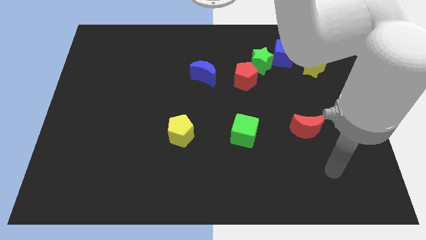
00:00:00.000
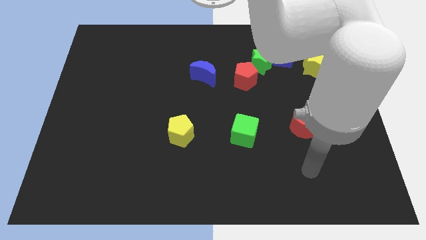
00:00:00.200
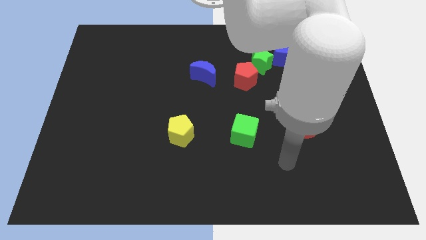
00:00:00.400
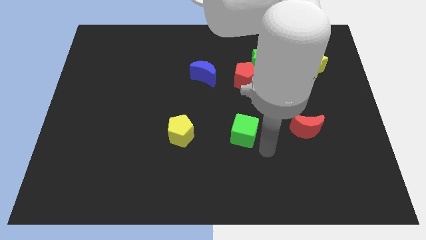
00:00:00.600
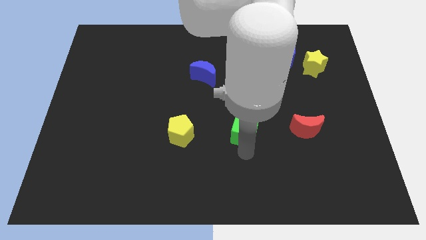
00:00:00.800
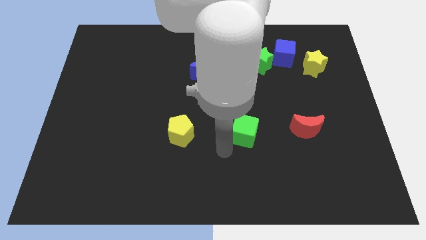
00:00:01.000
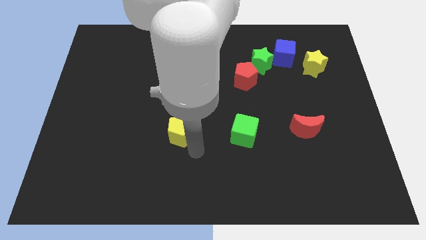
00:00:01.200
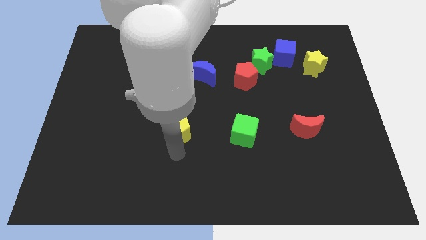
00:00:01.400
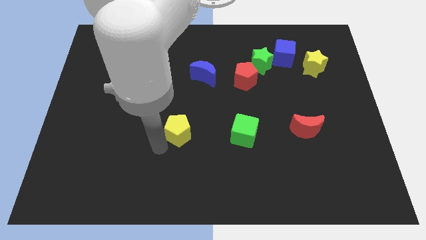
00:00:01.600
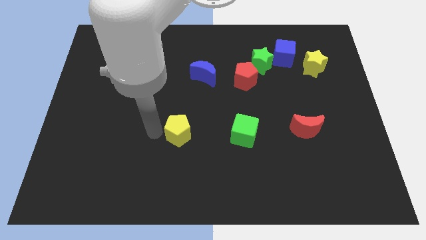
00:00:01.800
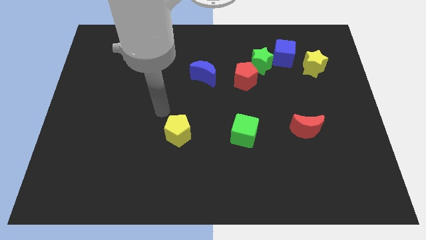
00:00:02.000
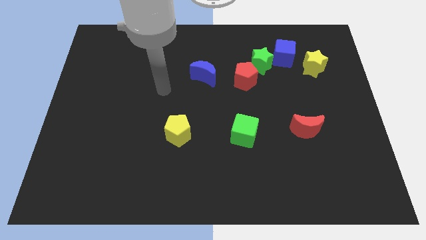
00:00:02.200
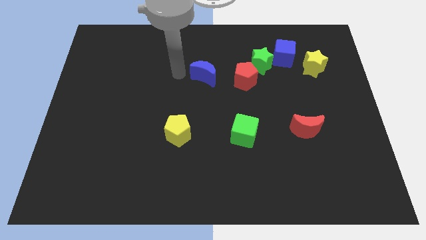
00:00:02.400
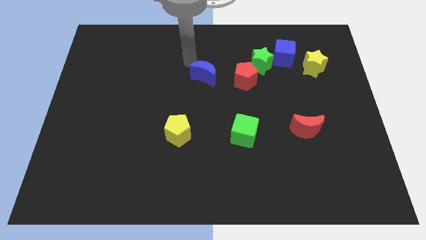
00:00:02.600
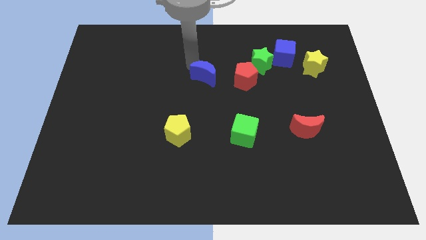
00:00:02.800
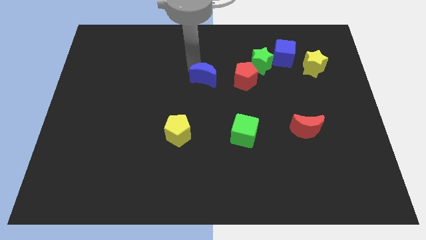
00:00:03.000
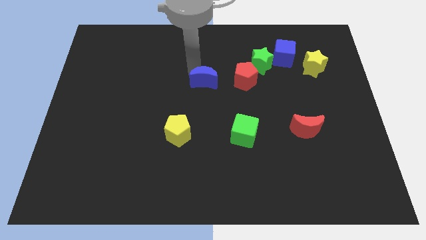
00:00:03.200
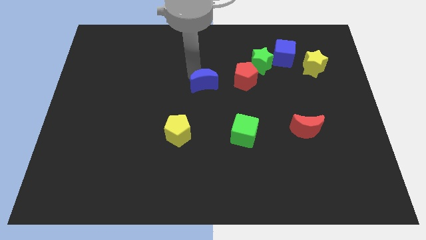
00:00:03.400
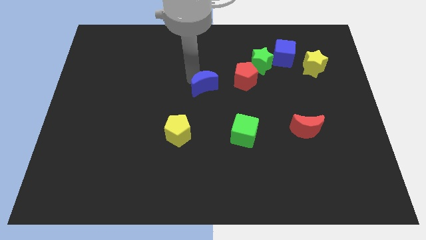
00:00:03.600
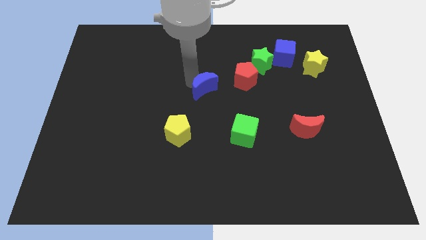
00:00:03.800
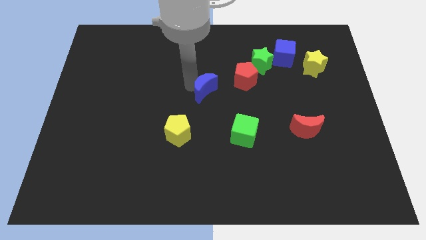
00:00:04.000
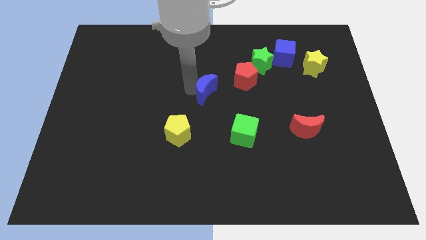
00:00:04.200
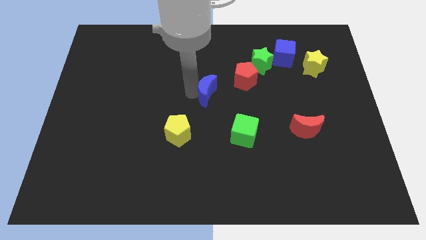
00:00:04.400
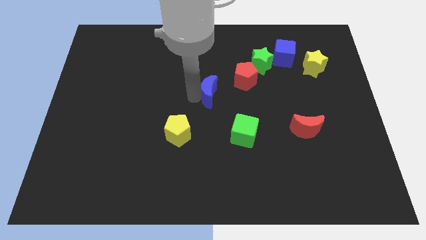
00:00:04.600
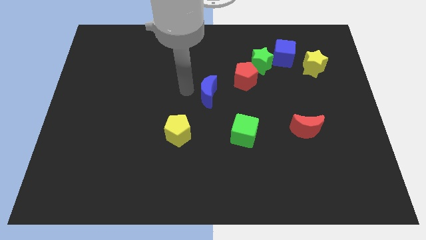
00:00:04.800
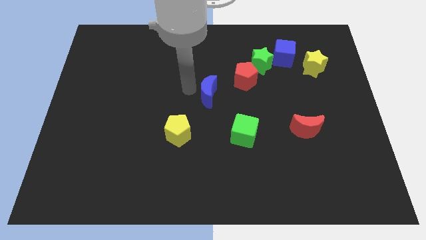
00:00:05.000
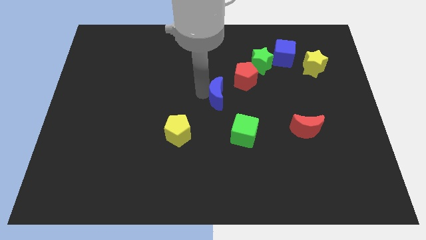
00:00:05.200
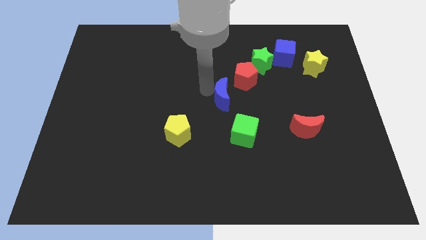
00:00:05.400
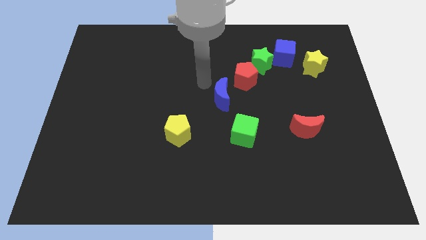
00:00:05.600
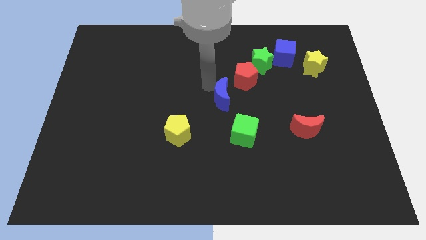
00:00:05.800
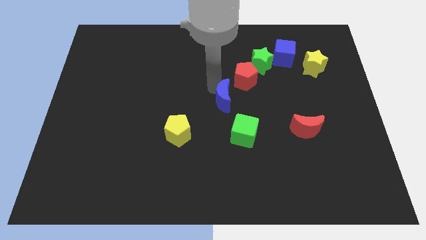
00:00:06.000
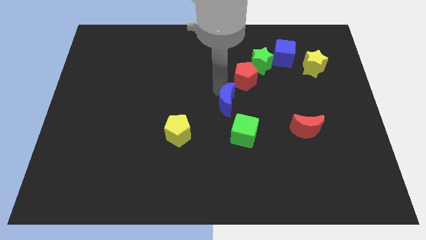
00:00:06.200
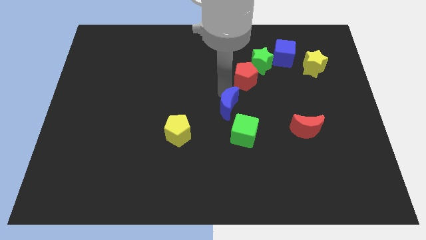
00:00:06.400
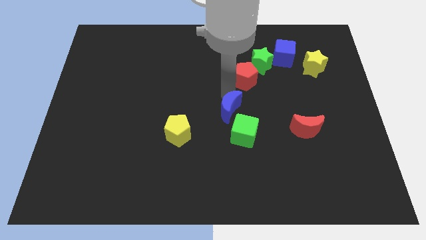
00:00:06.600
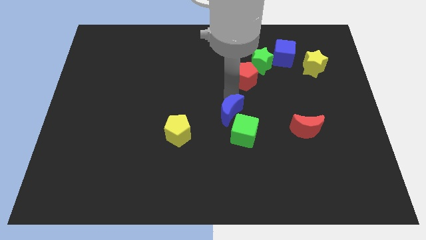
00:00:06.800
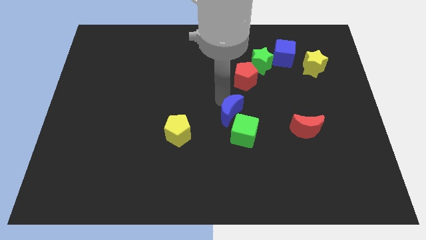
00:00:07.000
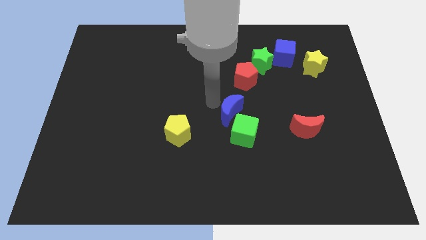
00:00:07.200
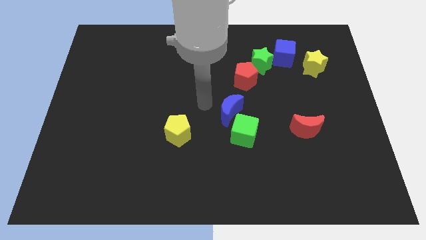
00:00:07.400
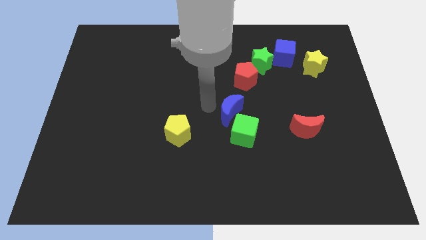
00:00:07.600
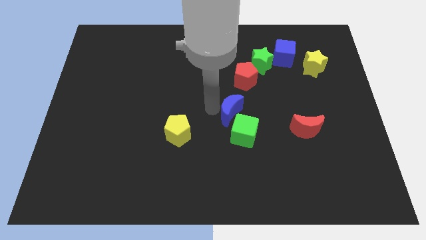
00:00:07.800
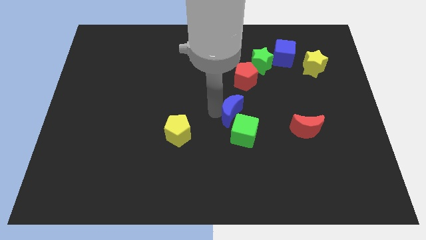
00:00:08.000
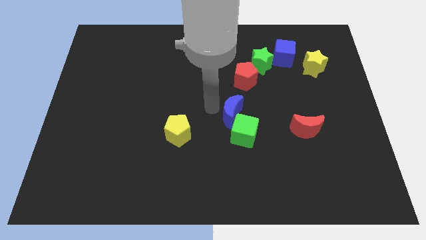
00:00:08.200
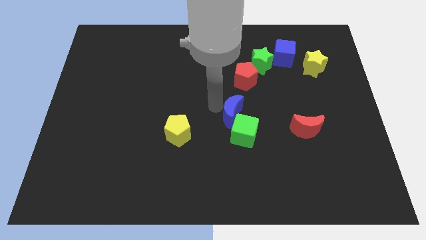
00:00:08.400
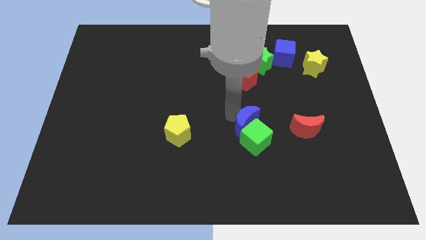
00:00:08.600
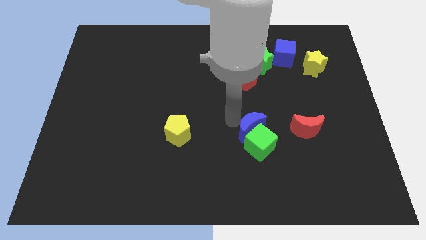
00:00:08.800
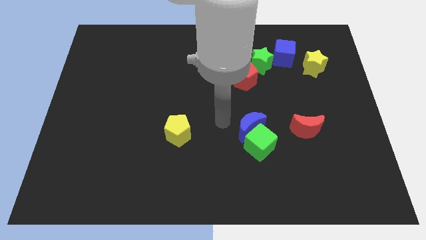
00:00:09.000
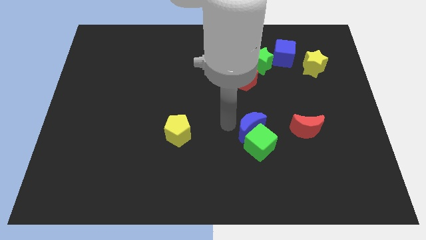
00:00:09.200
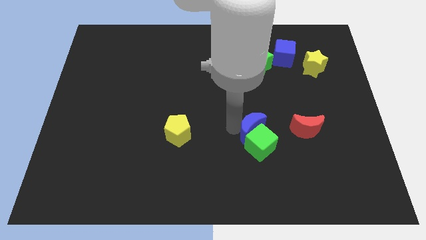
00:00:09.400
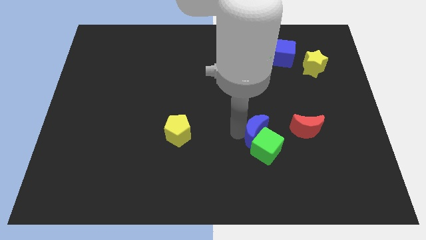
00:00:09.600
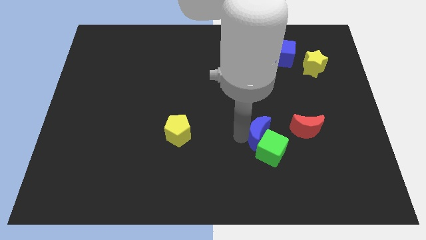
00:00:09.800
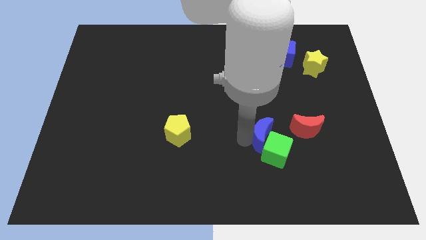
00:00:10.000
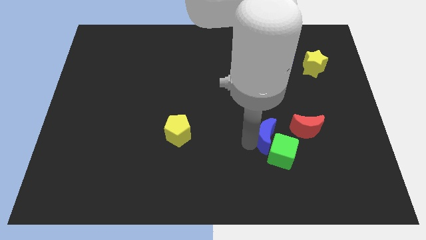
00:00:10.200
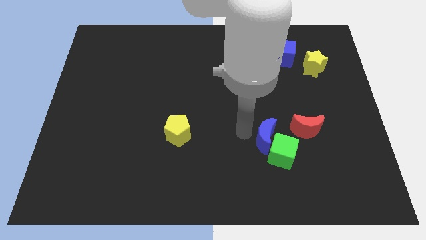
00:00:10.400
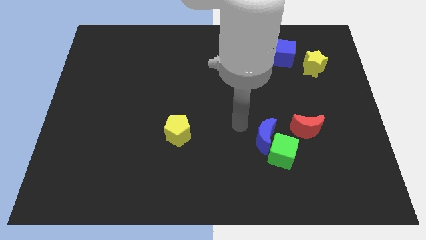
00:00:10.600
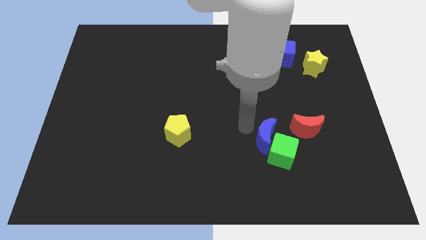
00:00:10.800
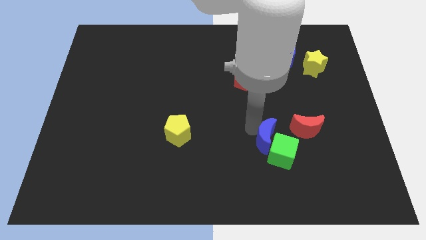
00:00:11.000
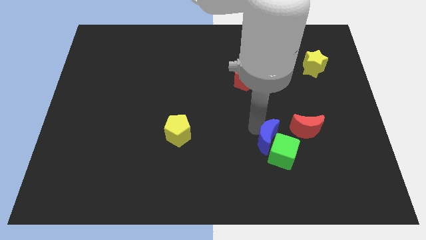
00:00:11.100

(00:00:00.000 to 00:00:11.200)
push the blue moon to the bottom left side of the red moon

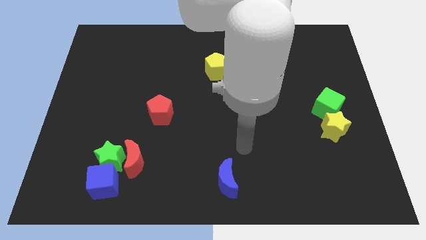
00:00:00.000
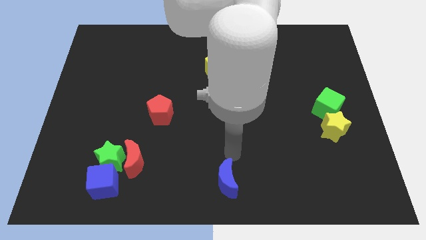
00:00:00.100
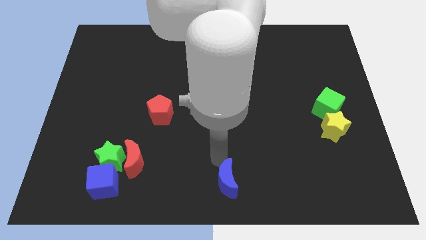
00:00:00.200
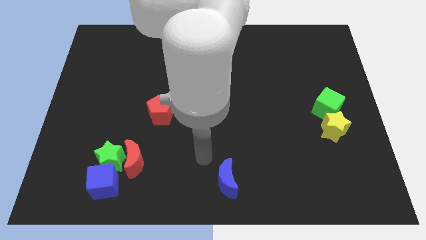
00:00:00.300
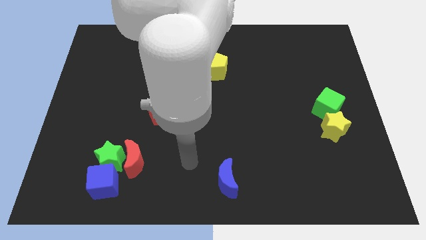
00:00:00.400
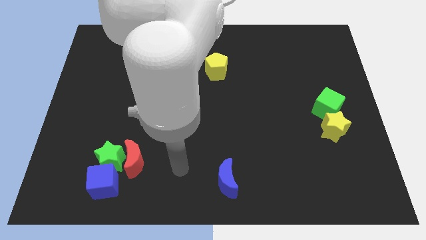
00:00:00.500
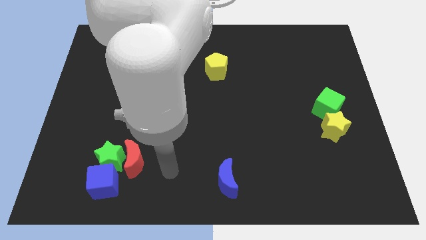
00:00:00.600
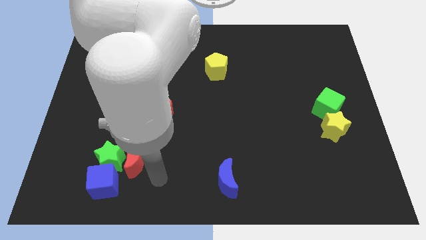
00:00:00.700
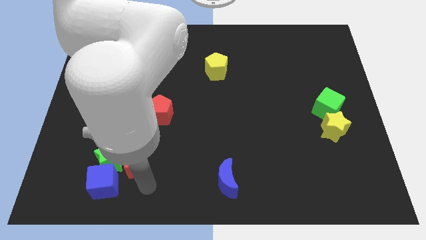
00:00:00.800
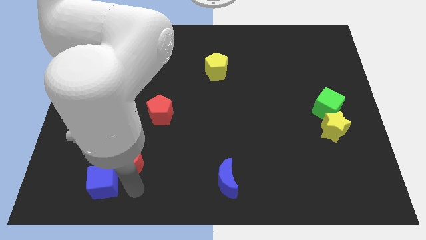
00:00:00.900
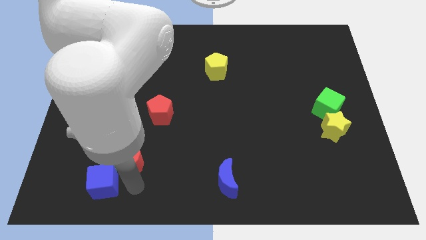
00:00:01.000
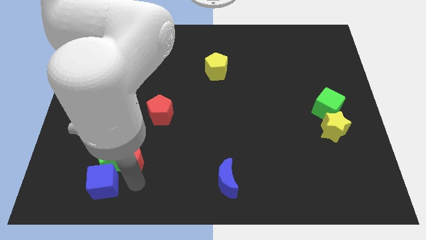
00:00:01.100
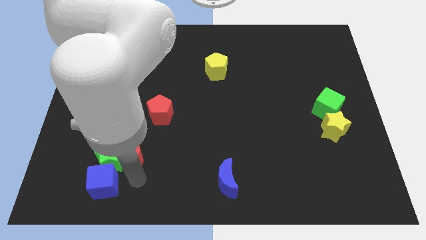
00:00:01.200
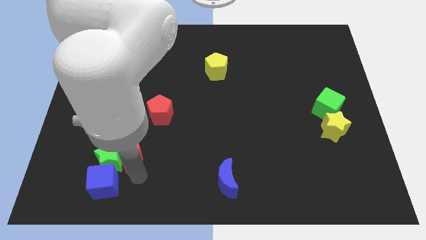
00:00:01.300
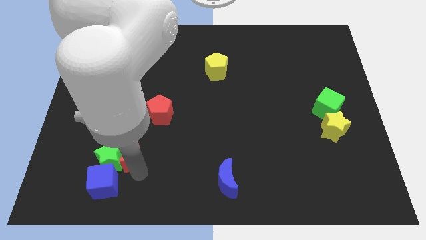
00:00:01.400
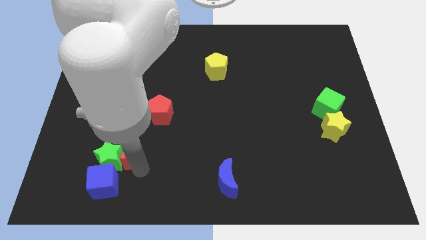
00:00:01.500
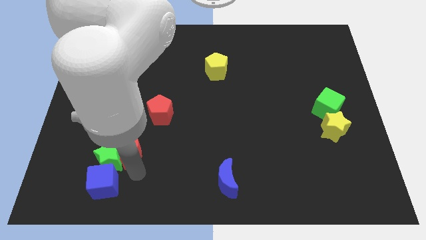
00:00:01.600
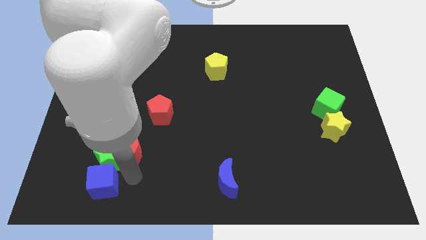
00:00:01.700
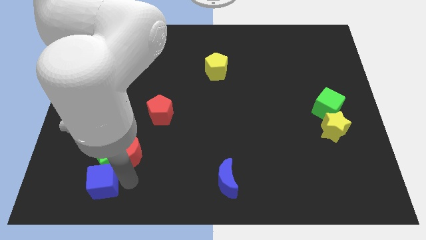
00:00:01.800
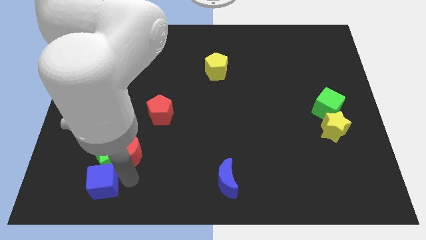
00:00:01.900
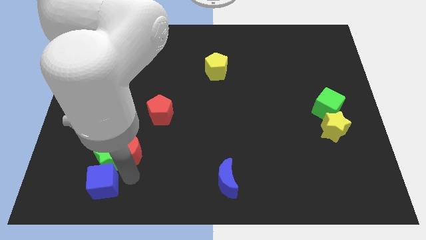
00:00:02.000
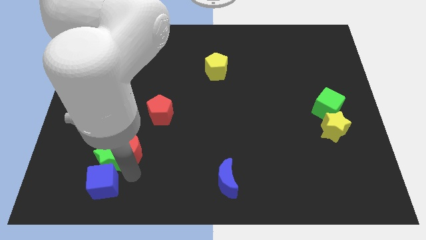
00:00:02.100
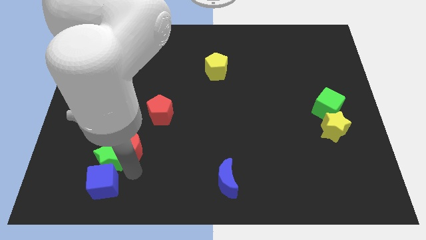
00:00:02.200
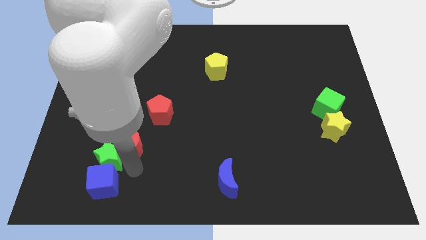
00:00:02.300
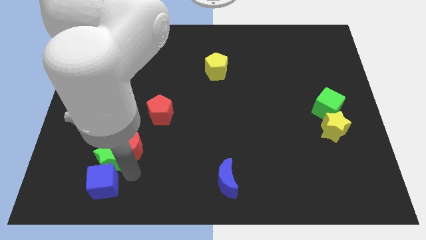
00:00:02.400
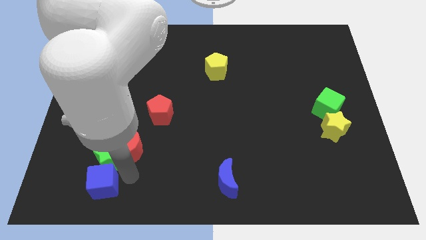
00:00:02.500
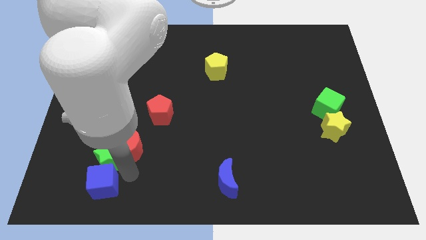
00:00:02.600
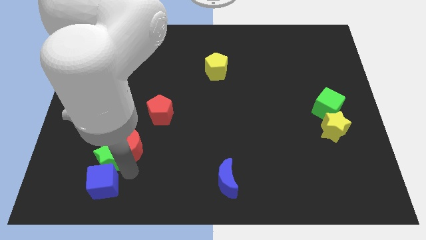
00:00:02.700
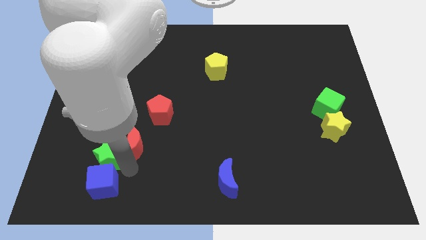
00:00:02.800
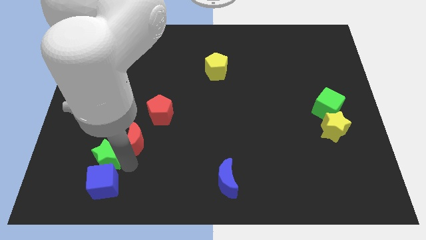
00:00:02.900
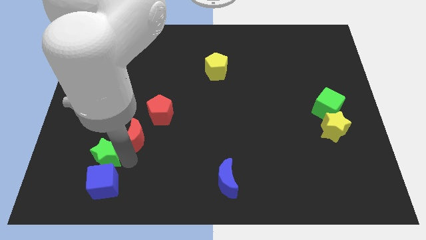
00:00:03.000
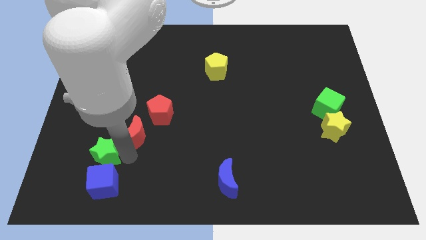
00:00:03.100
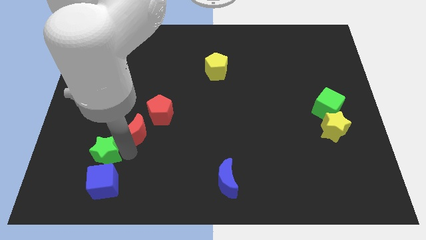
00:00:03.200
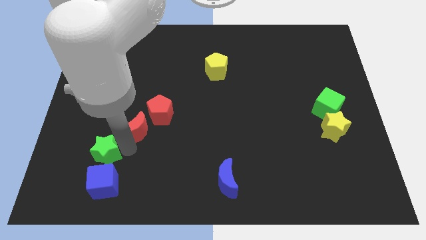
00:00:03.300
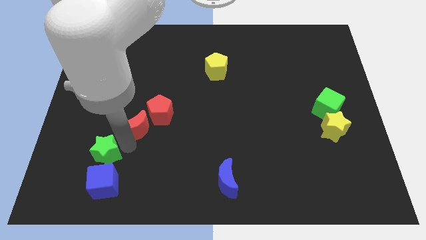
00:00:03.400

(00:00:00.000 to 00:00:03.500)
push the red moon just left of the red pentagon
